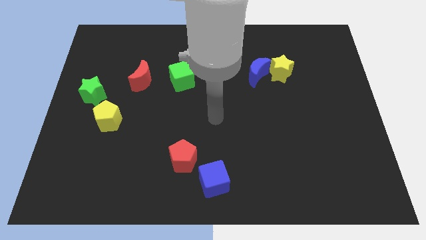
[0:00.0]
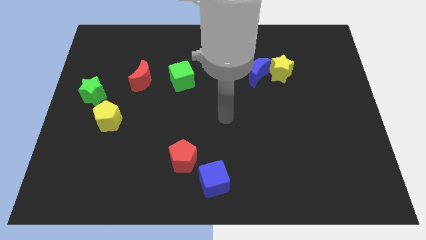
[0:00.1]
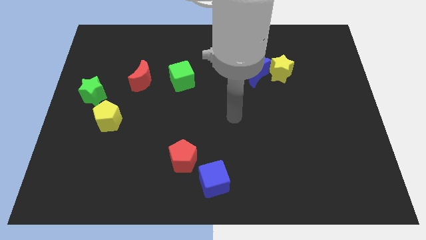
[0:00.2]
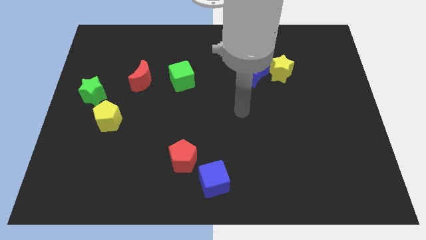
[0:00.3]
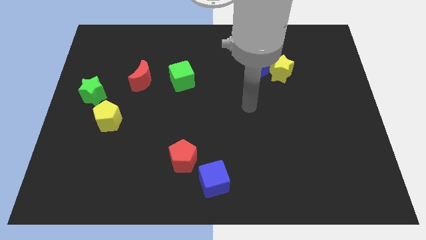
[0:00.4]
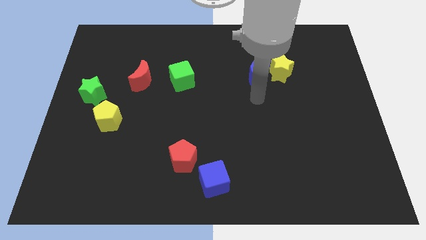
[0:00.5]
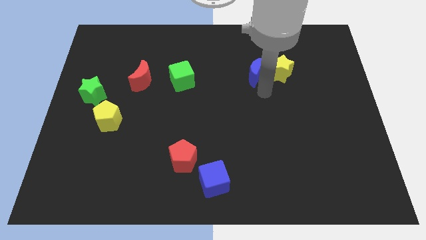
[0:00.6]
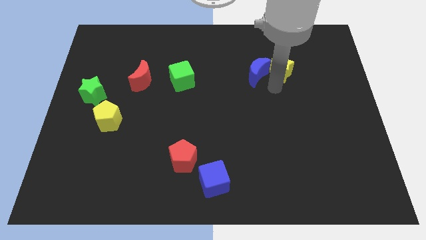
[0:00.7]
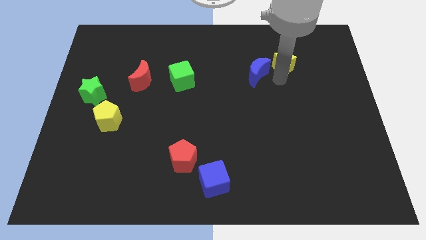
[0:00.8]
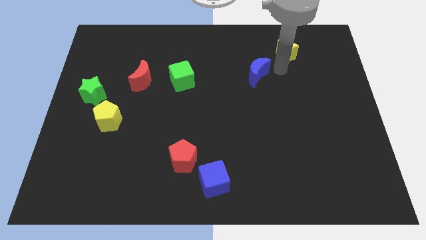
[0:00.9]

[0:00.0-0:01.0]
pull the blue moon apart from the yellow star

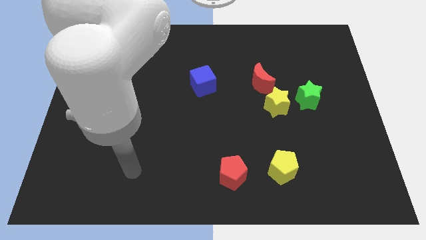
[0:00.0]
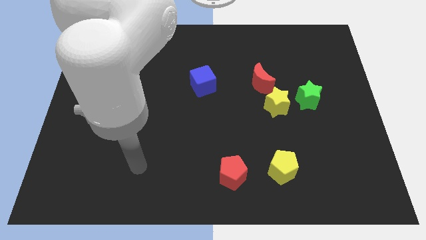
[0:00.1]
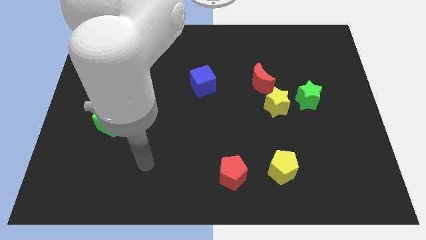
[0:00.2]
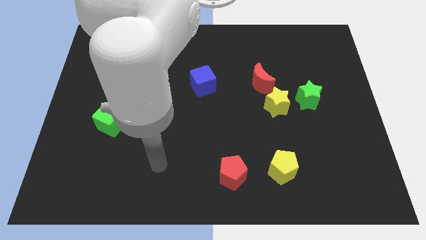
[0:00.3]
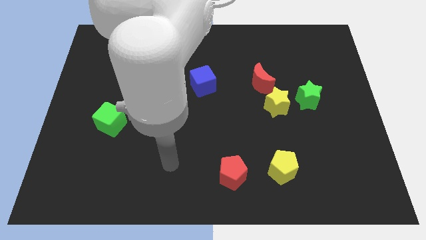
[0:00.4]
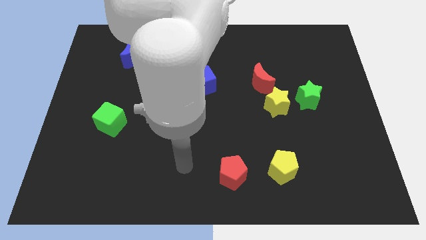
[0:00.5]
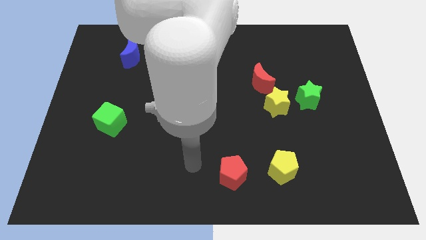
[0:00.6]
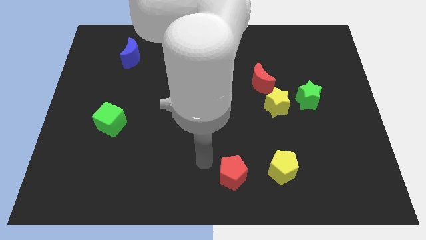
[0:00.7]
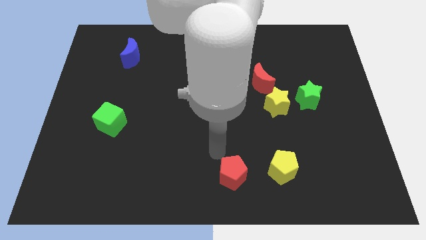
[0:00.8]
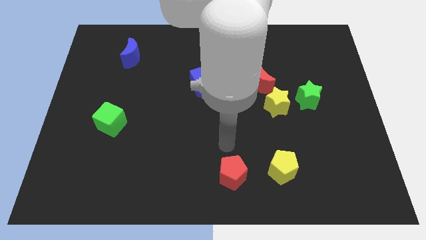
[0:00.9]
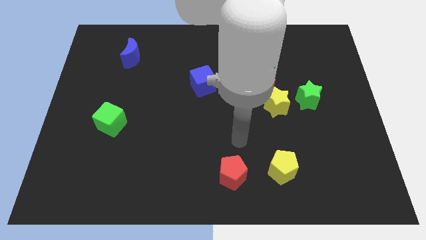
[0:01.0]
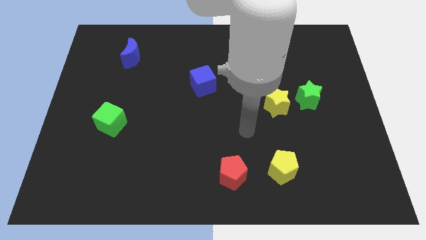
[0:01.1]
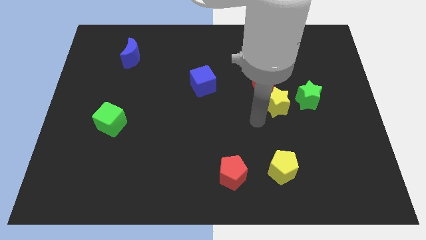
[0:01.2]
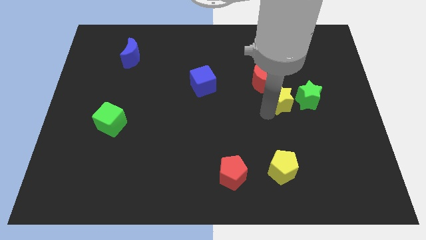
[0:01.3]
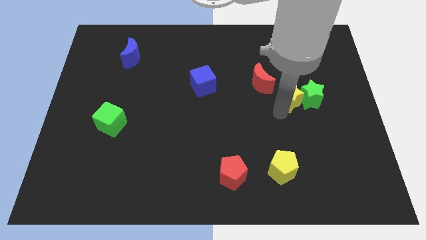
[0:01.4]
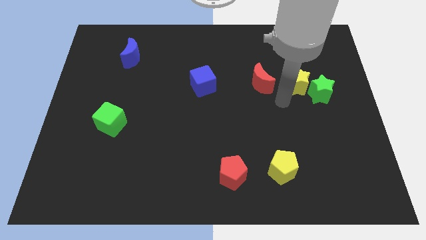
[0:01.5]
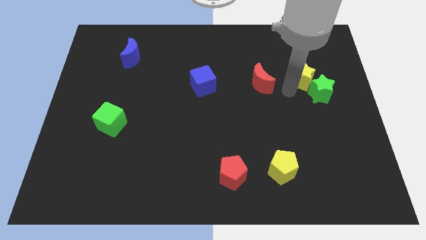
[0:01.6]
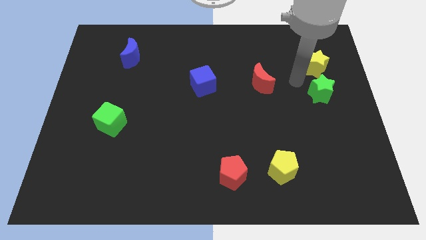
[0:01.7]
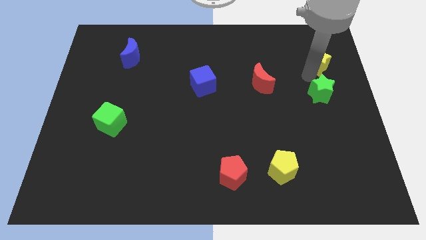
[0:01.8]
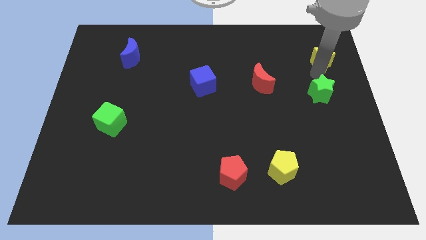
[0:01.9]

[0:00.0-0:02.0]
pull the green star apart from the yellow star

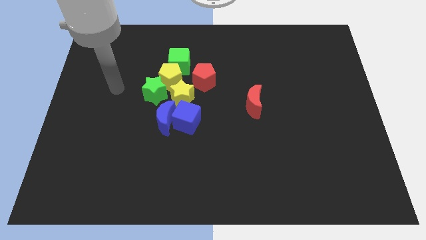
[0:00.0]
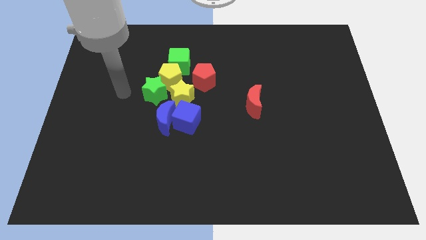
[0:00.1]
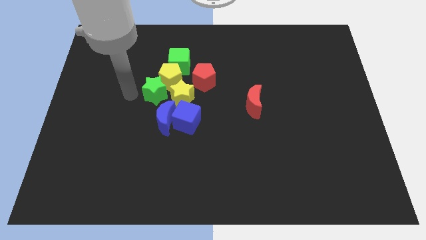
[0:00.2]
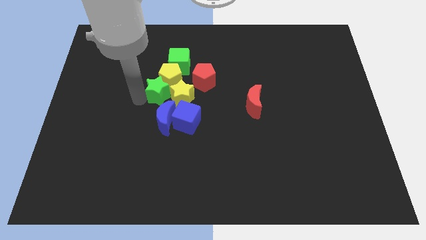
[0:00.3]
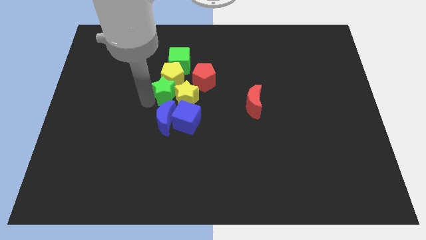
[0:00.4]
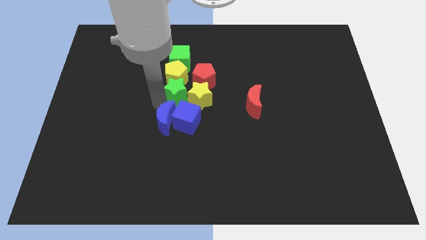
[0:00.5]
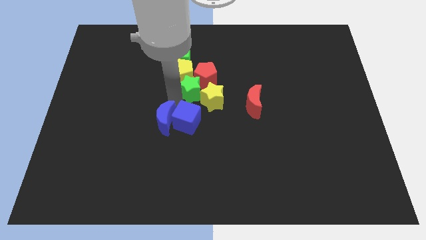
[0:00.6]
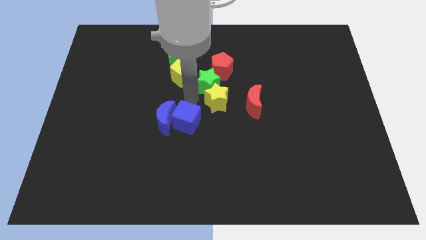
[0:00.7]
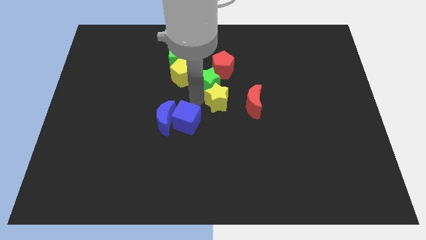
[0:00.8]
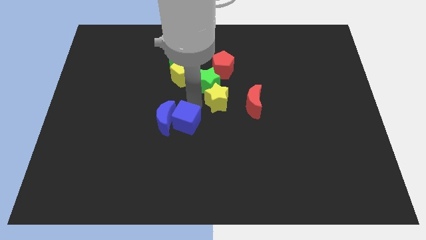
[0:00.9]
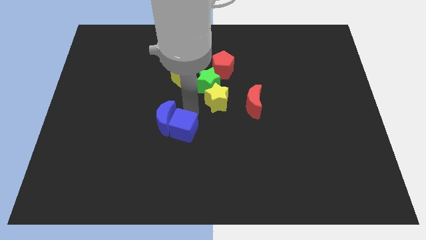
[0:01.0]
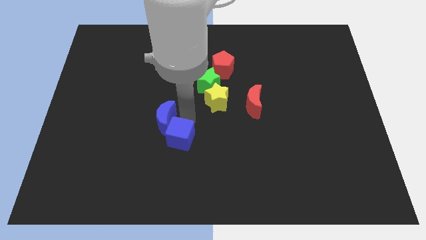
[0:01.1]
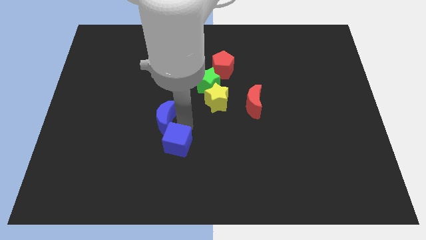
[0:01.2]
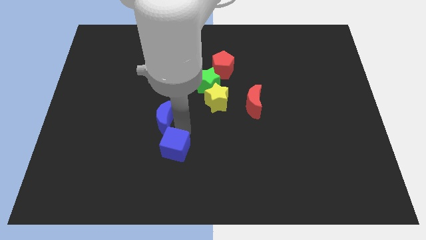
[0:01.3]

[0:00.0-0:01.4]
move the blue cube away from the blue moon and yellow star

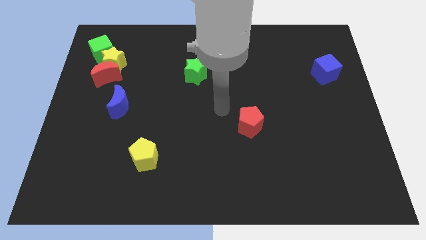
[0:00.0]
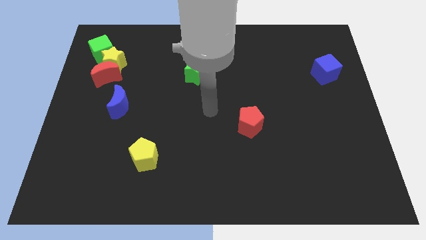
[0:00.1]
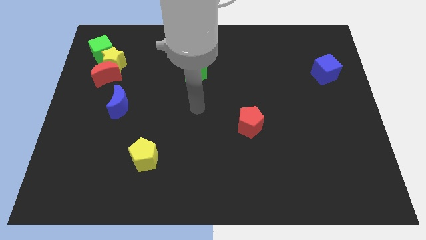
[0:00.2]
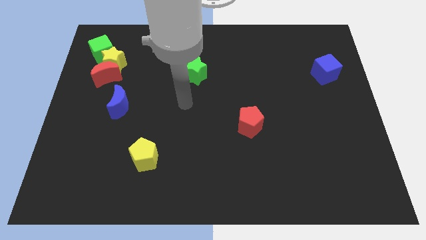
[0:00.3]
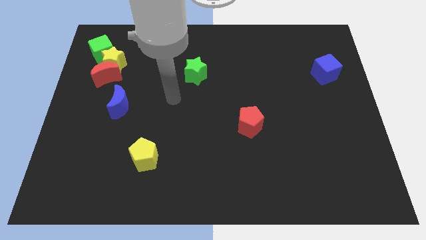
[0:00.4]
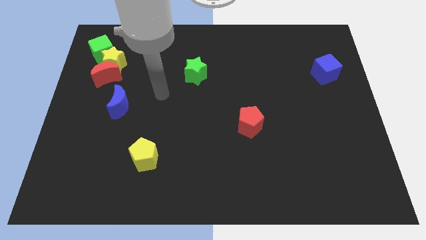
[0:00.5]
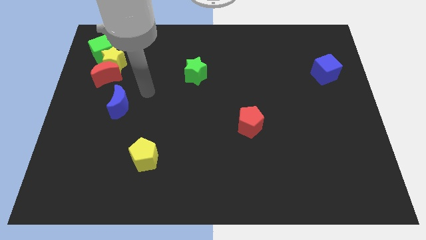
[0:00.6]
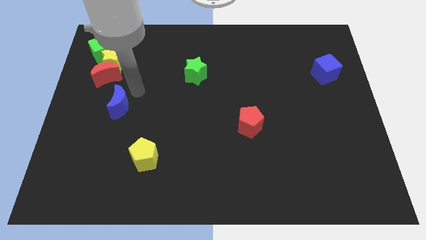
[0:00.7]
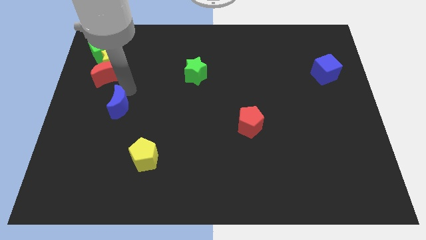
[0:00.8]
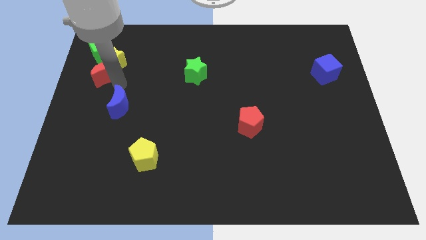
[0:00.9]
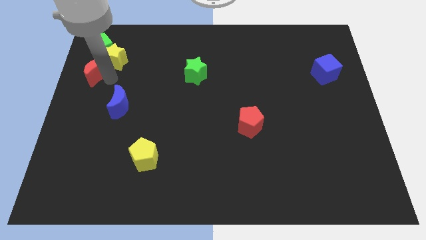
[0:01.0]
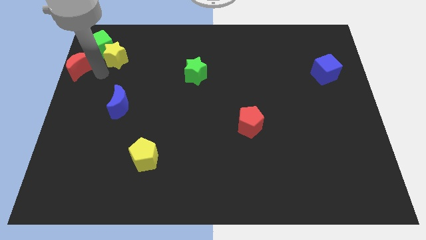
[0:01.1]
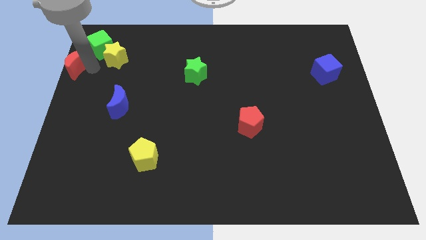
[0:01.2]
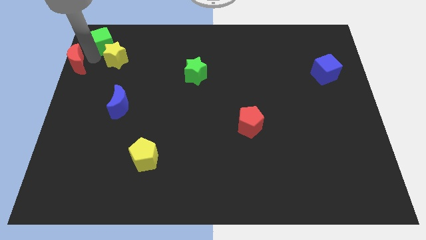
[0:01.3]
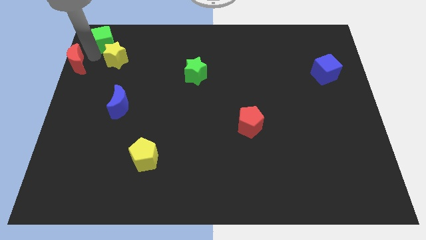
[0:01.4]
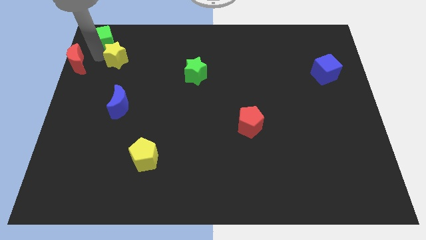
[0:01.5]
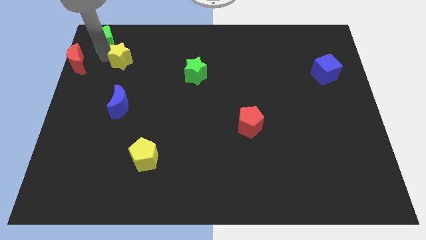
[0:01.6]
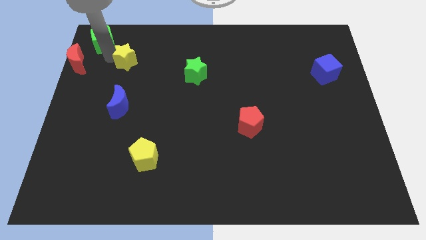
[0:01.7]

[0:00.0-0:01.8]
separate the yellow star from the red moon and green cube

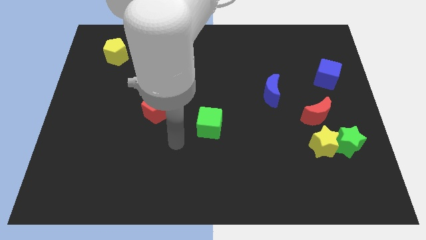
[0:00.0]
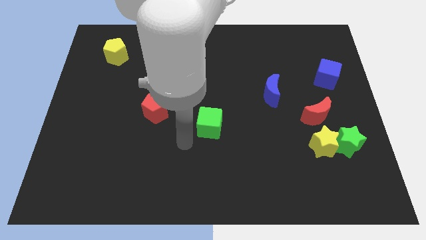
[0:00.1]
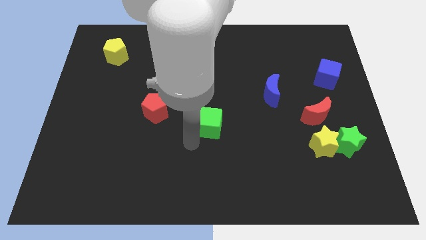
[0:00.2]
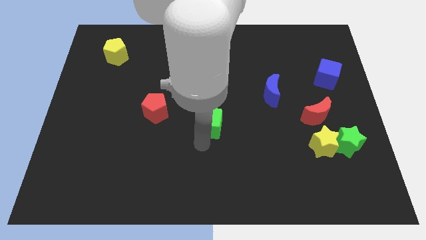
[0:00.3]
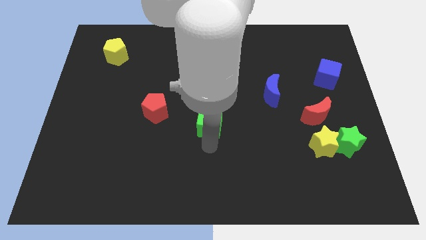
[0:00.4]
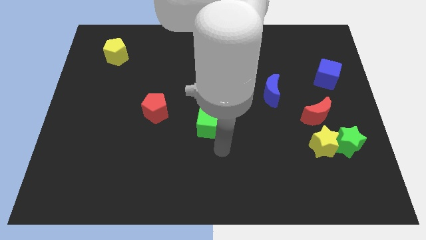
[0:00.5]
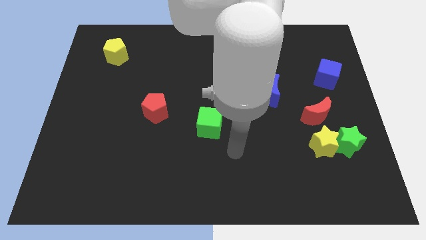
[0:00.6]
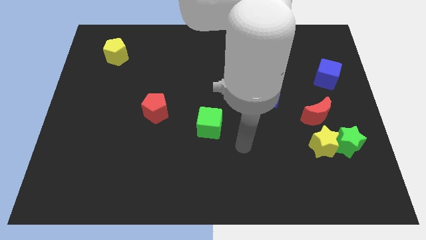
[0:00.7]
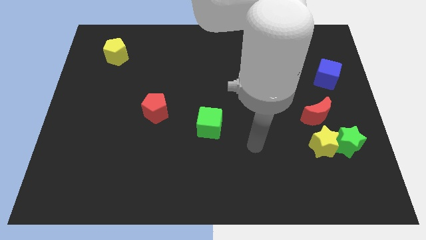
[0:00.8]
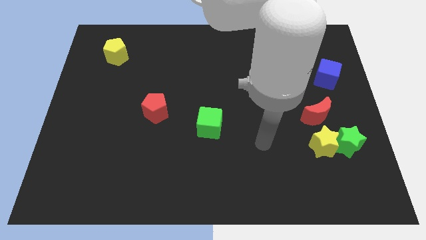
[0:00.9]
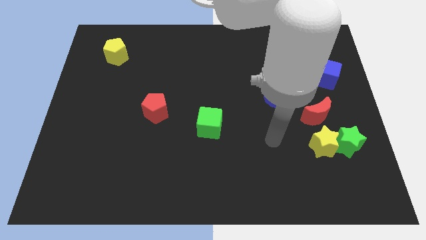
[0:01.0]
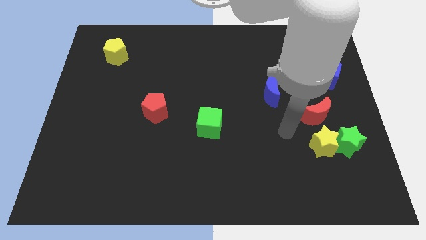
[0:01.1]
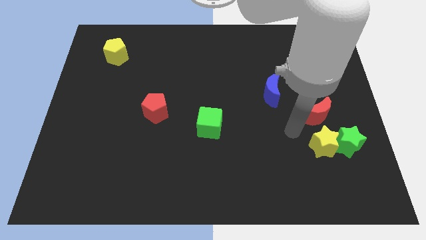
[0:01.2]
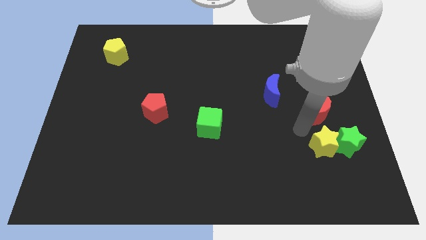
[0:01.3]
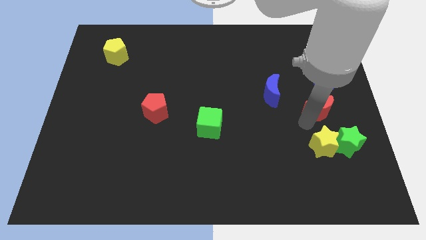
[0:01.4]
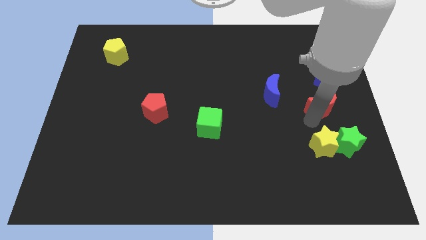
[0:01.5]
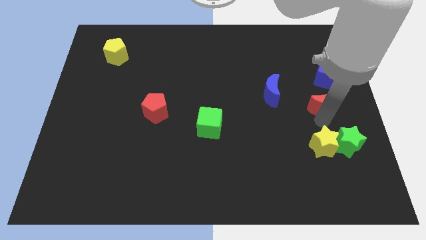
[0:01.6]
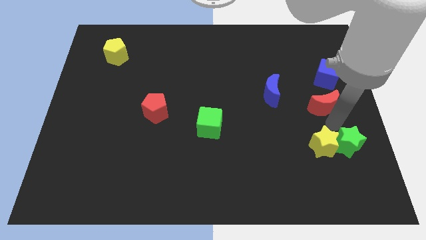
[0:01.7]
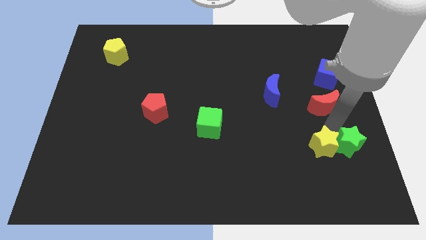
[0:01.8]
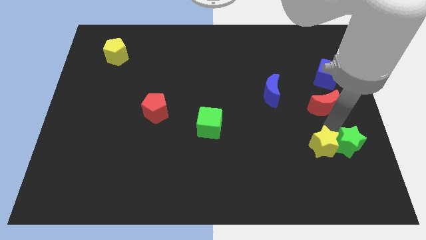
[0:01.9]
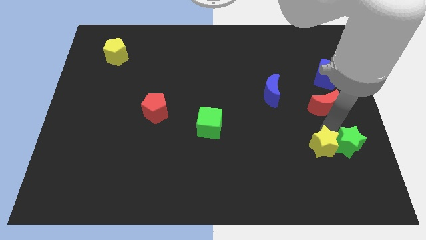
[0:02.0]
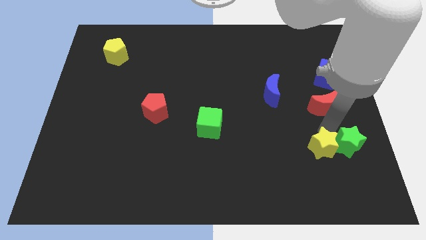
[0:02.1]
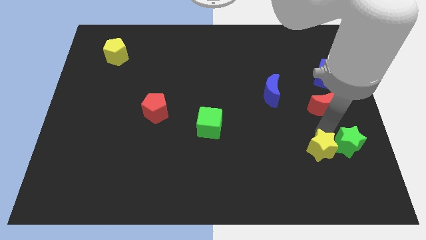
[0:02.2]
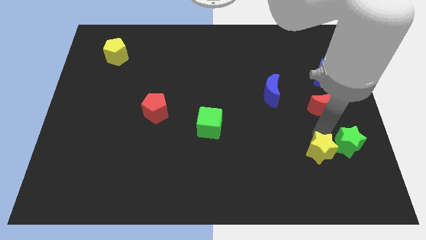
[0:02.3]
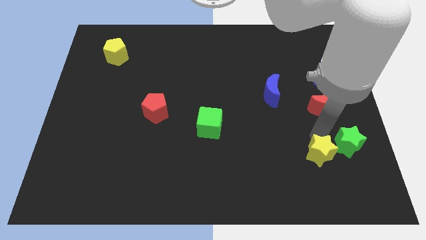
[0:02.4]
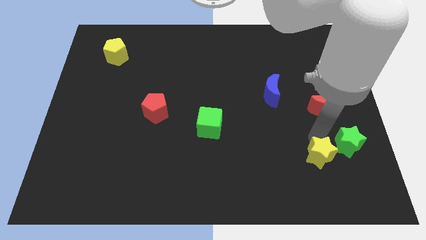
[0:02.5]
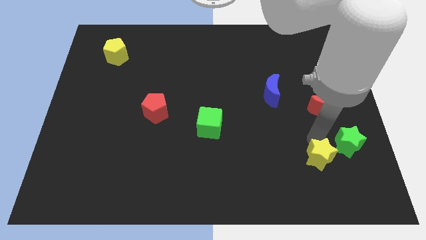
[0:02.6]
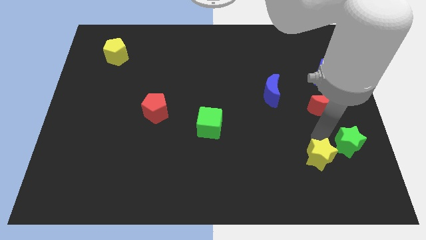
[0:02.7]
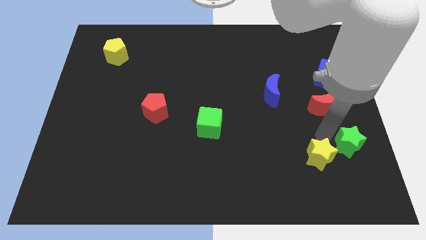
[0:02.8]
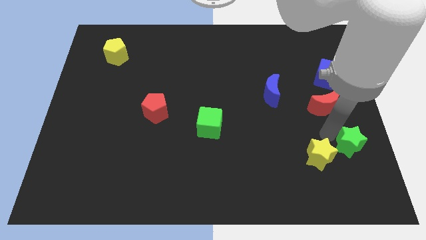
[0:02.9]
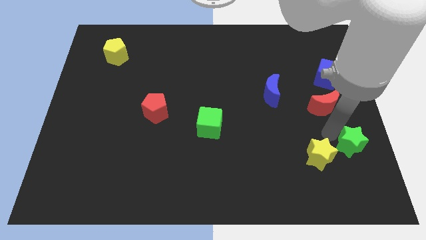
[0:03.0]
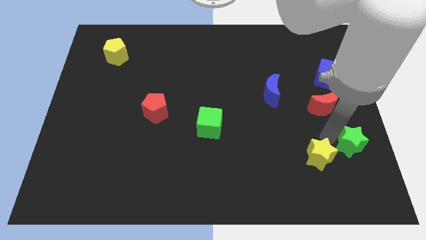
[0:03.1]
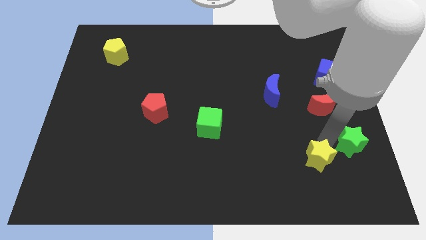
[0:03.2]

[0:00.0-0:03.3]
move the yellow star away from the green star and red moon
